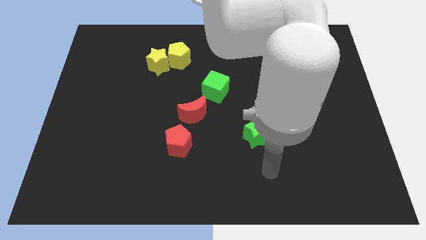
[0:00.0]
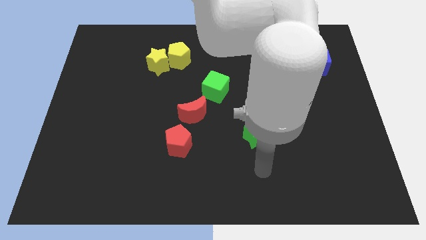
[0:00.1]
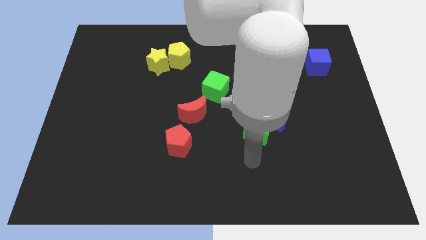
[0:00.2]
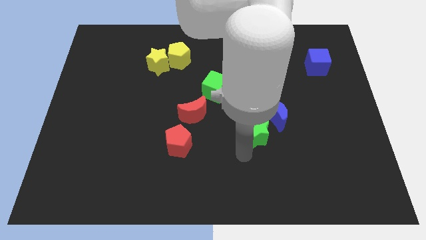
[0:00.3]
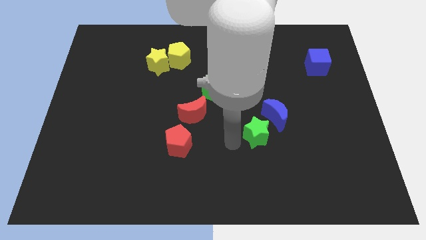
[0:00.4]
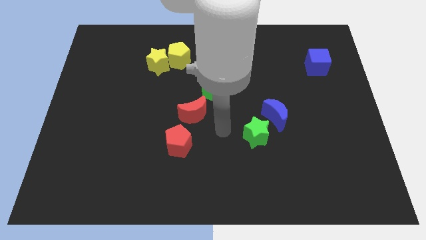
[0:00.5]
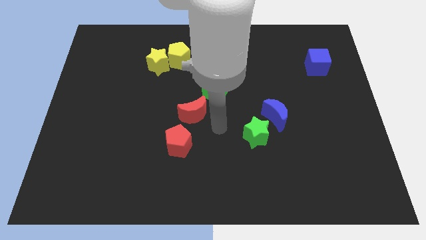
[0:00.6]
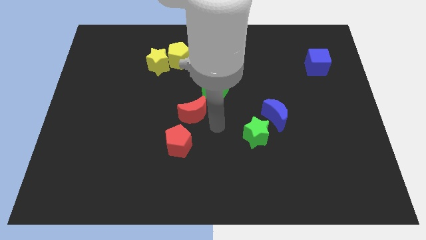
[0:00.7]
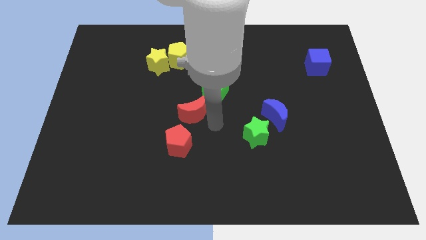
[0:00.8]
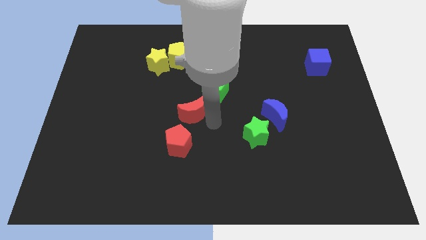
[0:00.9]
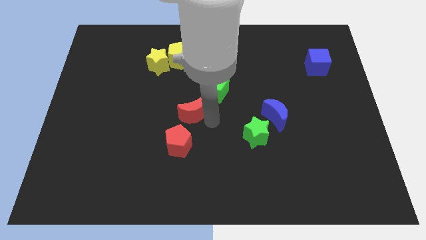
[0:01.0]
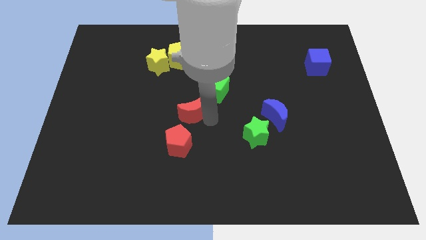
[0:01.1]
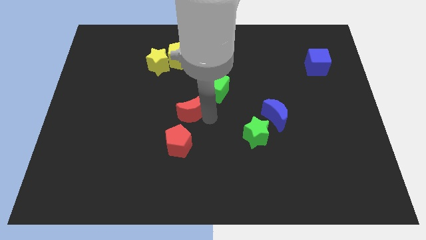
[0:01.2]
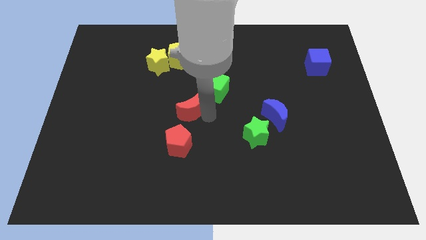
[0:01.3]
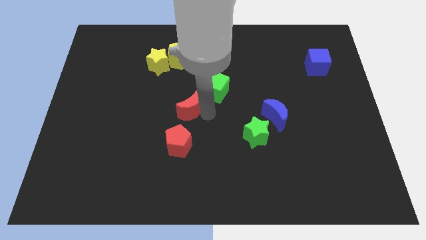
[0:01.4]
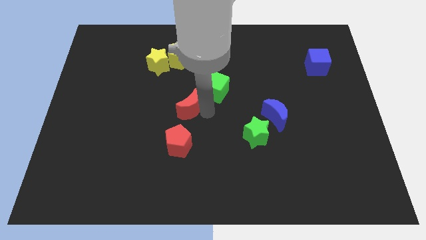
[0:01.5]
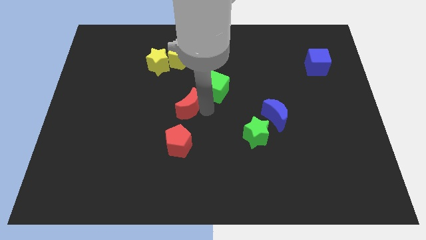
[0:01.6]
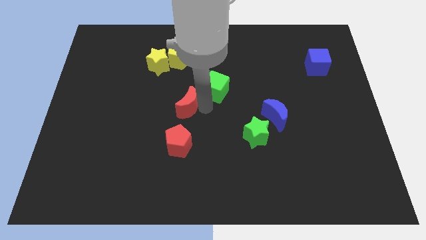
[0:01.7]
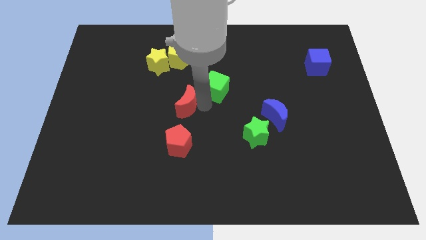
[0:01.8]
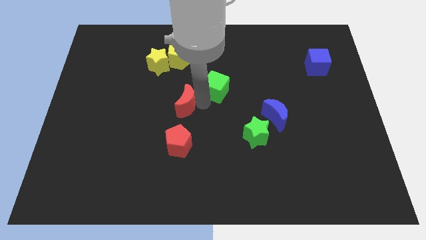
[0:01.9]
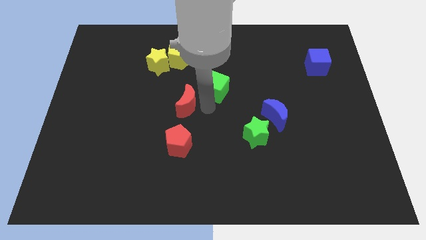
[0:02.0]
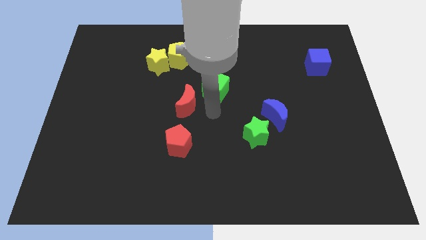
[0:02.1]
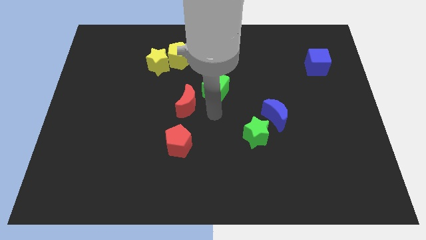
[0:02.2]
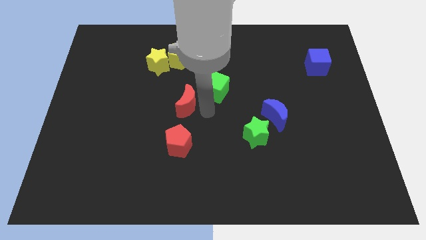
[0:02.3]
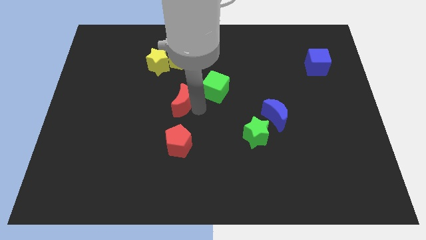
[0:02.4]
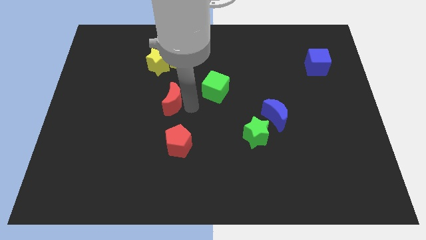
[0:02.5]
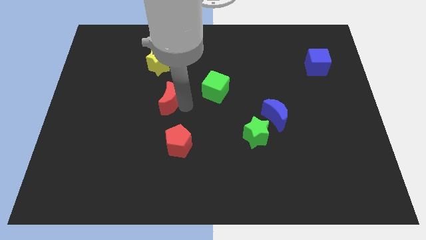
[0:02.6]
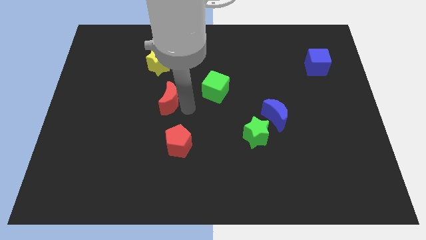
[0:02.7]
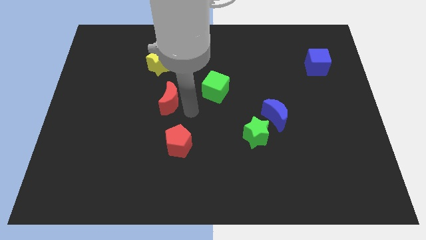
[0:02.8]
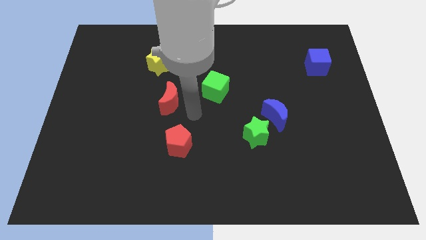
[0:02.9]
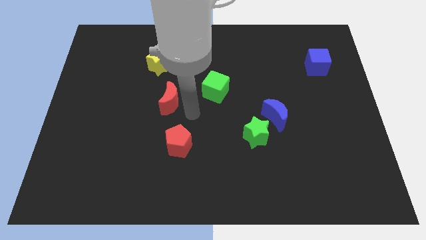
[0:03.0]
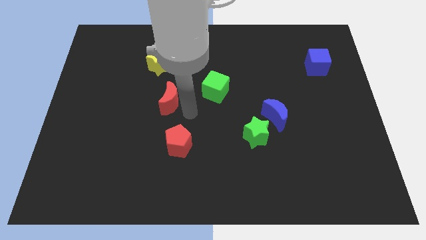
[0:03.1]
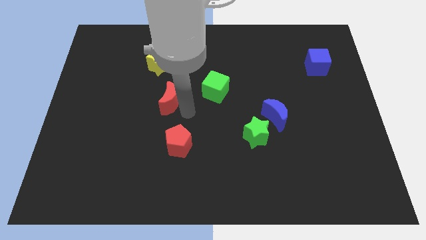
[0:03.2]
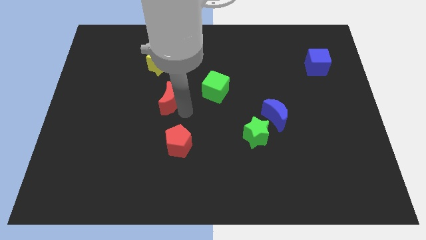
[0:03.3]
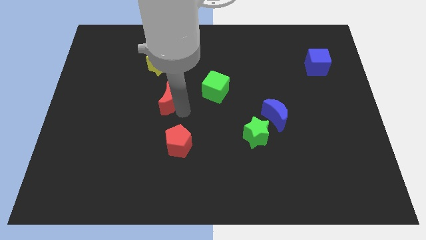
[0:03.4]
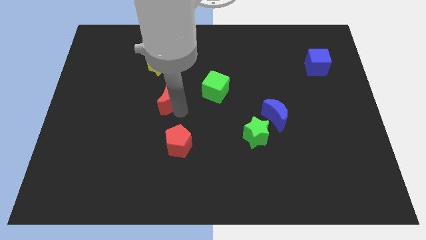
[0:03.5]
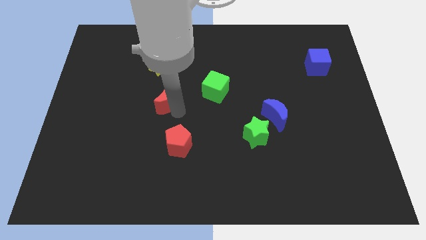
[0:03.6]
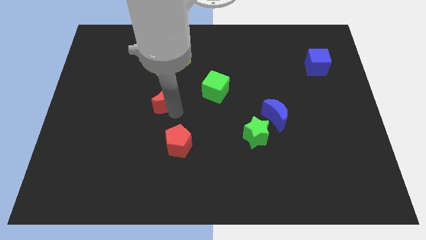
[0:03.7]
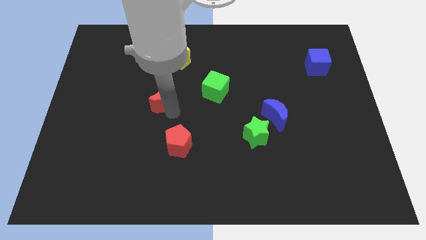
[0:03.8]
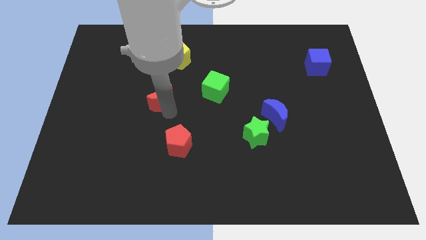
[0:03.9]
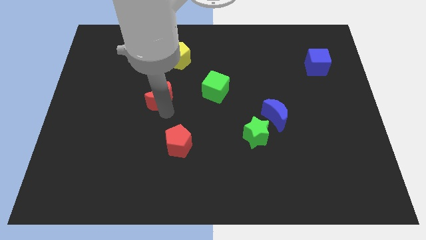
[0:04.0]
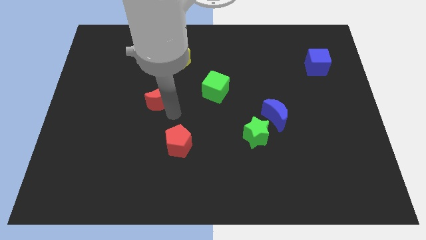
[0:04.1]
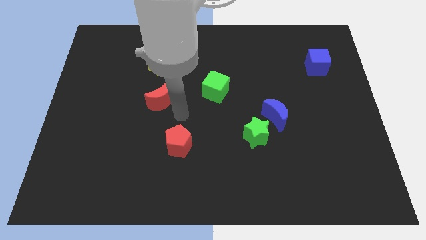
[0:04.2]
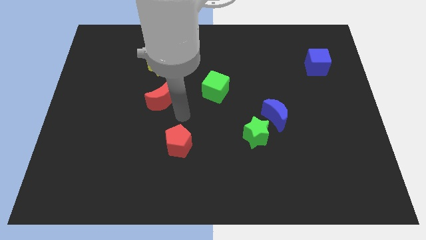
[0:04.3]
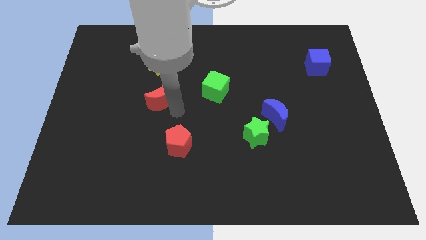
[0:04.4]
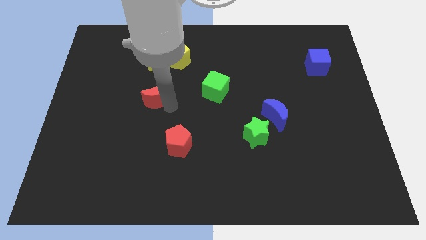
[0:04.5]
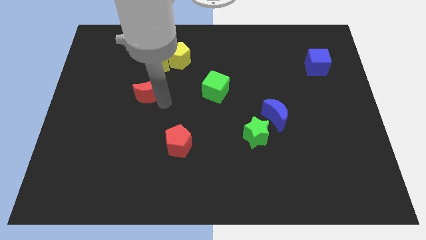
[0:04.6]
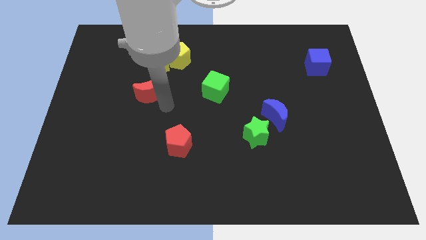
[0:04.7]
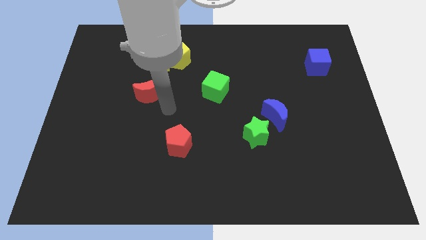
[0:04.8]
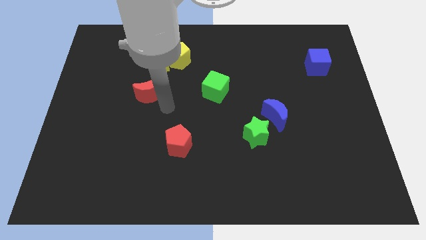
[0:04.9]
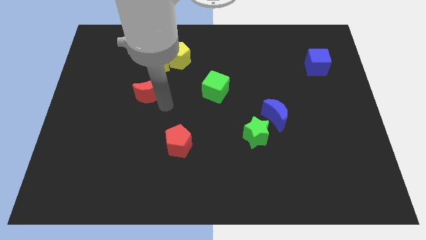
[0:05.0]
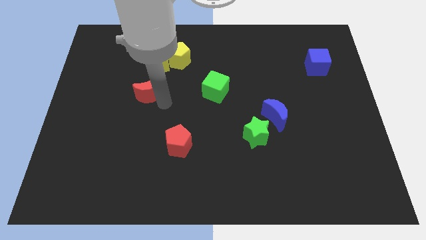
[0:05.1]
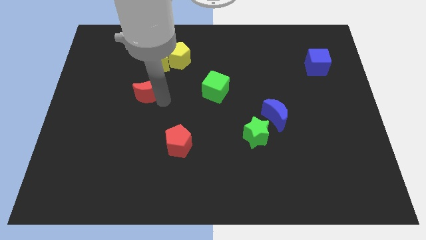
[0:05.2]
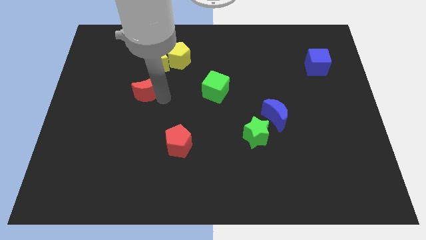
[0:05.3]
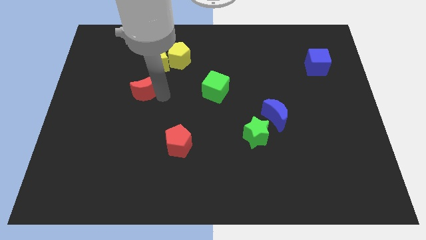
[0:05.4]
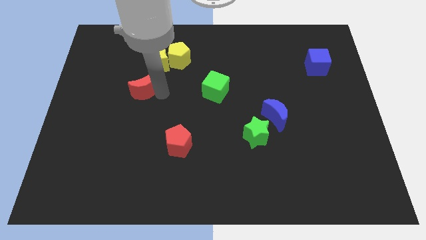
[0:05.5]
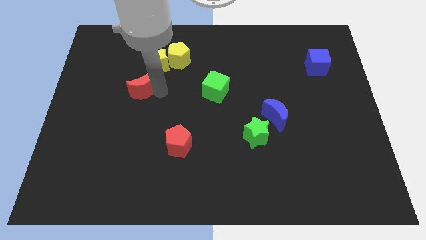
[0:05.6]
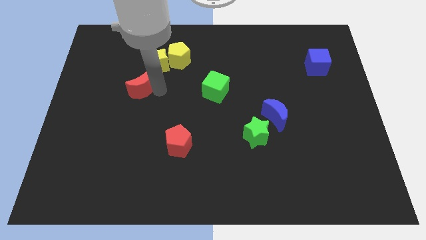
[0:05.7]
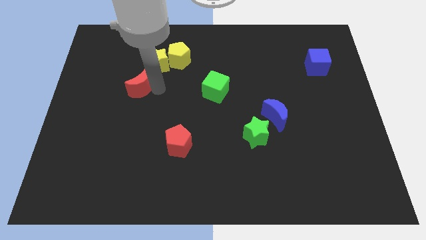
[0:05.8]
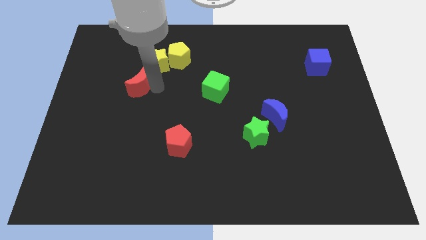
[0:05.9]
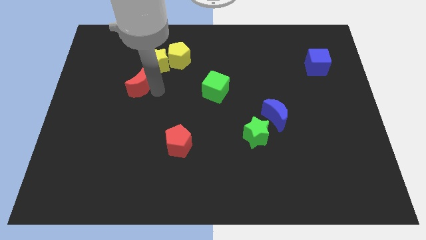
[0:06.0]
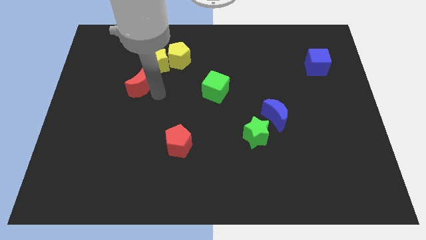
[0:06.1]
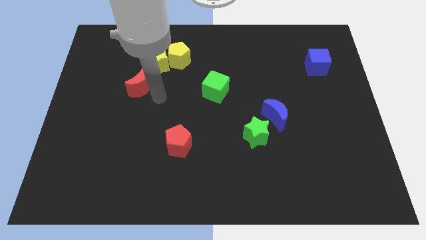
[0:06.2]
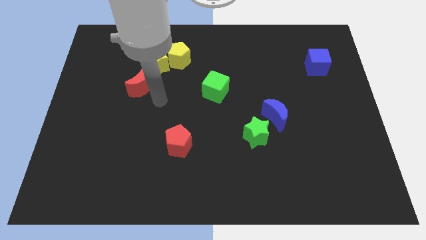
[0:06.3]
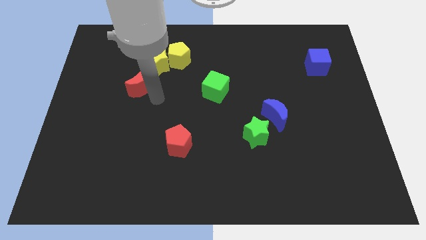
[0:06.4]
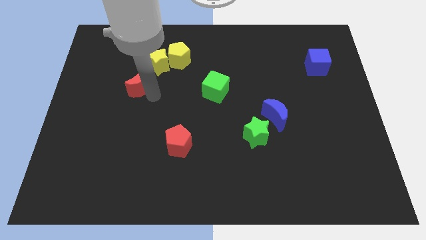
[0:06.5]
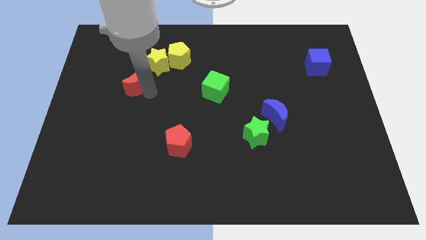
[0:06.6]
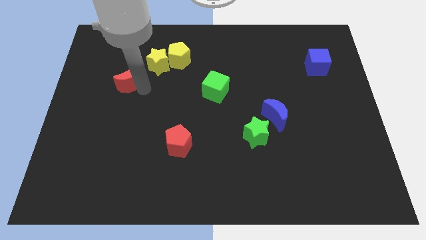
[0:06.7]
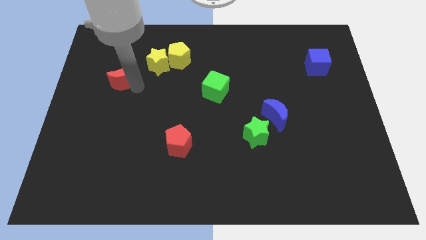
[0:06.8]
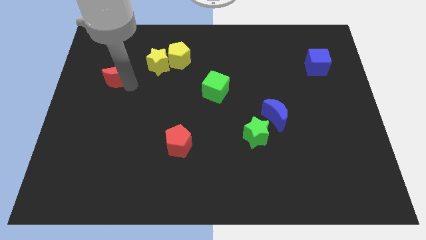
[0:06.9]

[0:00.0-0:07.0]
slide the red moon just left of the yellow star

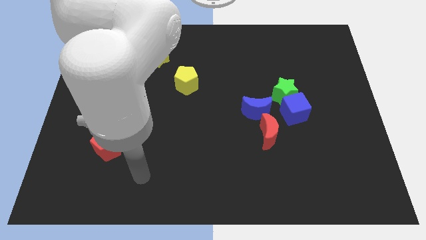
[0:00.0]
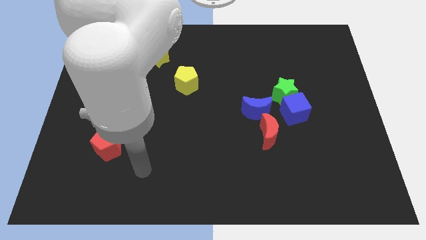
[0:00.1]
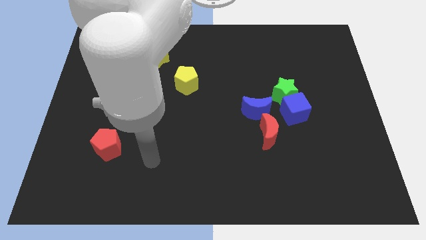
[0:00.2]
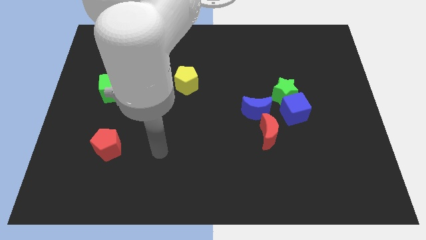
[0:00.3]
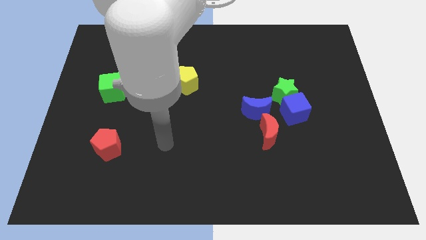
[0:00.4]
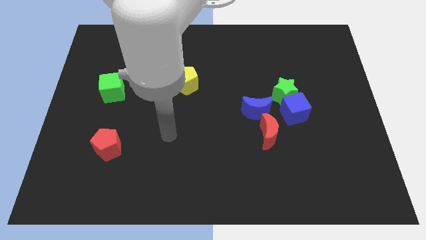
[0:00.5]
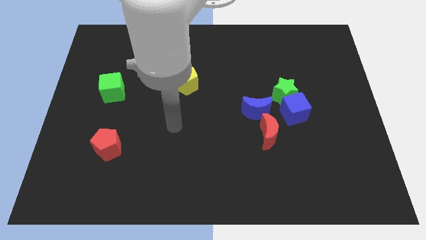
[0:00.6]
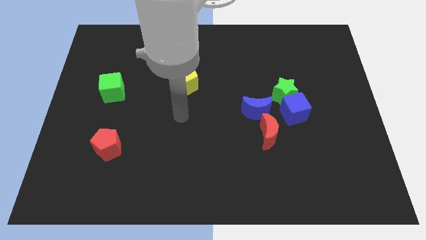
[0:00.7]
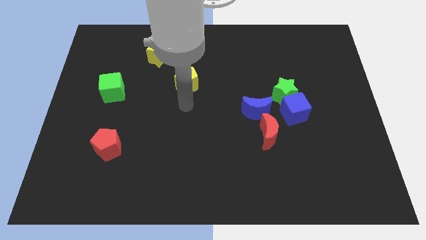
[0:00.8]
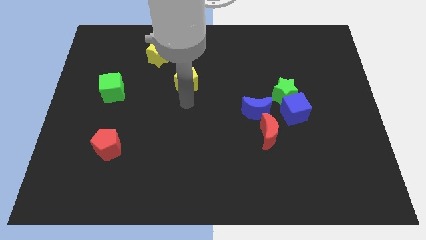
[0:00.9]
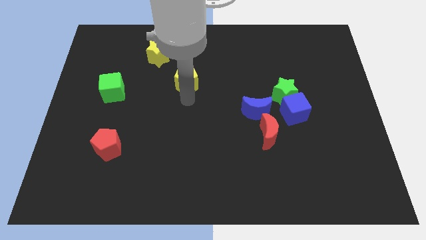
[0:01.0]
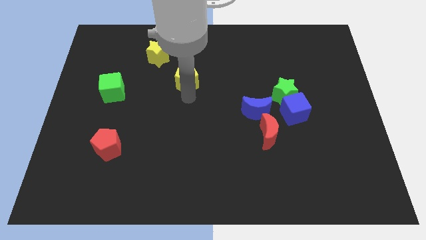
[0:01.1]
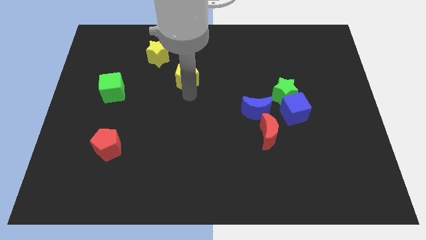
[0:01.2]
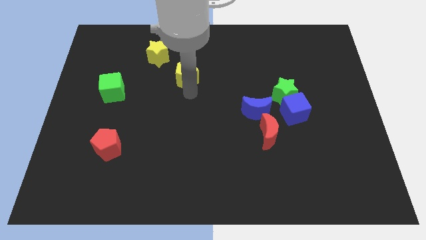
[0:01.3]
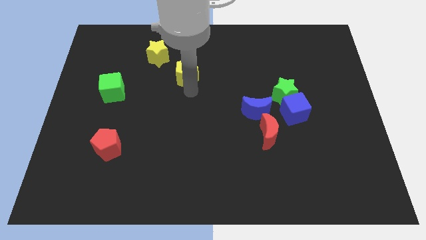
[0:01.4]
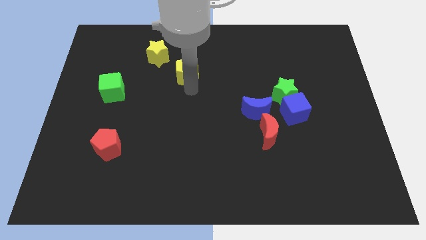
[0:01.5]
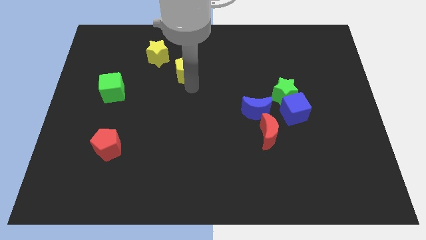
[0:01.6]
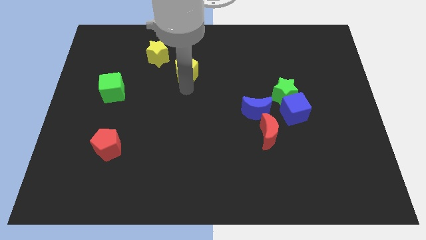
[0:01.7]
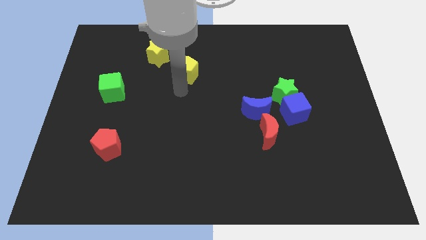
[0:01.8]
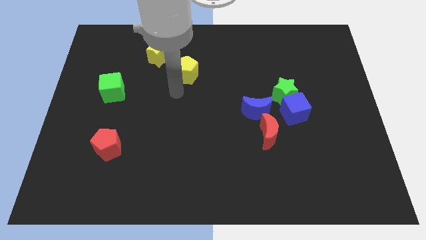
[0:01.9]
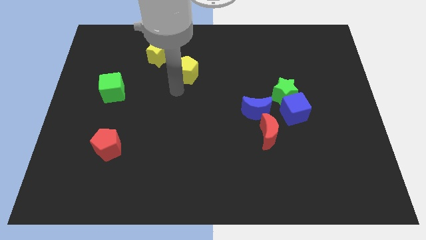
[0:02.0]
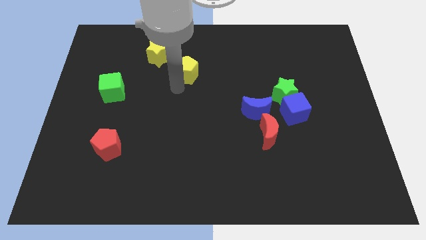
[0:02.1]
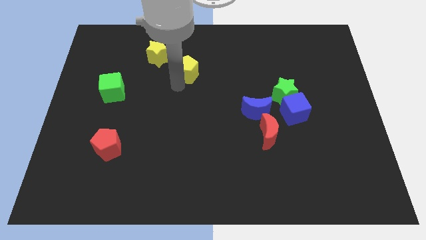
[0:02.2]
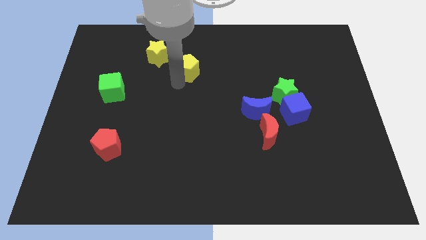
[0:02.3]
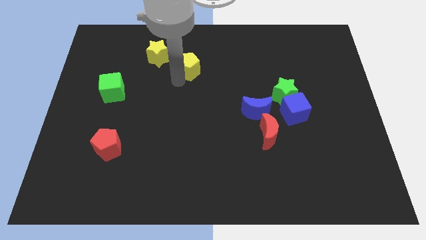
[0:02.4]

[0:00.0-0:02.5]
slide the yellow pentagon right of the yellow star
